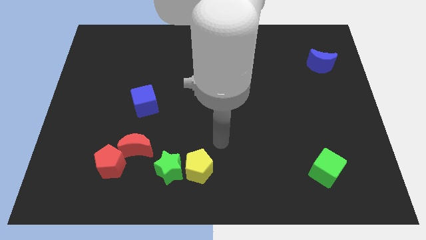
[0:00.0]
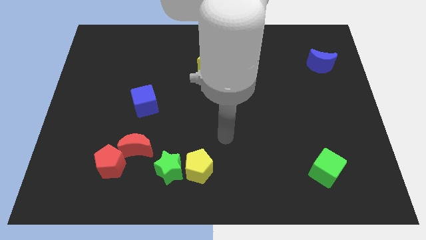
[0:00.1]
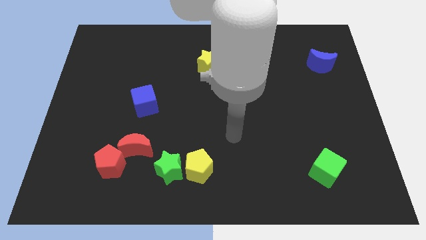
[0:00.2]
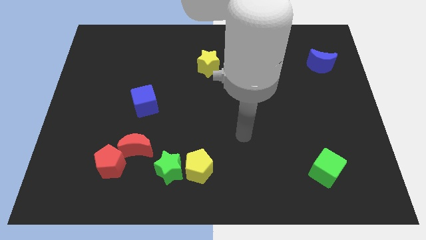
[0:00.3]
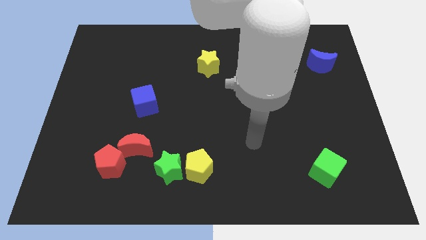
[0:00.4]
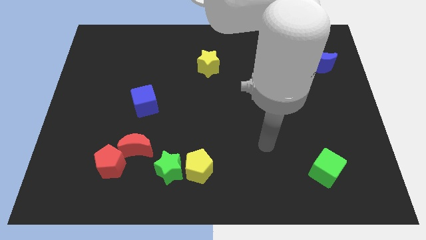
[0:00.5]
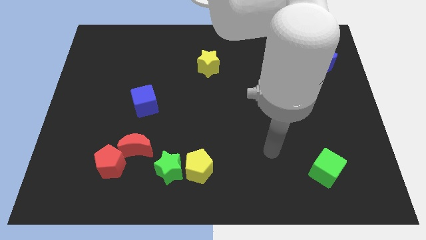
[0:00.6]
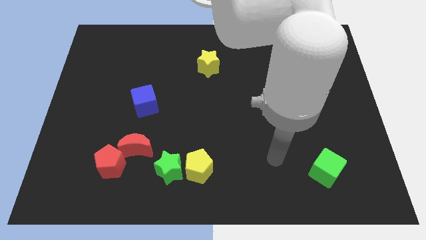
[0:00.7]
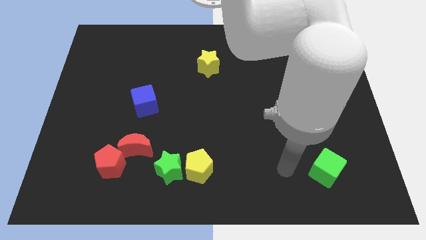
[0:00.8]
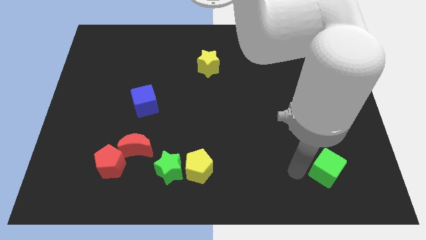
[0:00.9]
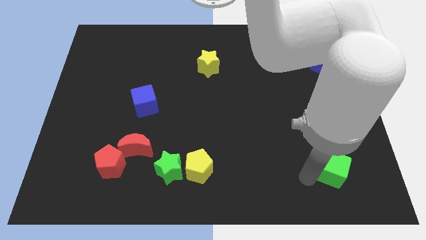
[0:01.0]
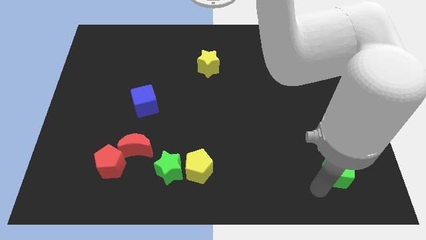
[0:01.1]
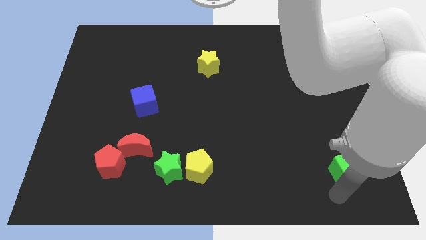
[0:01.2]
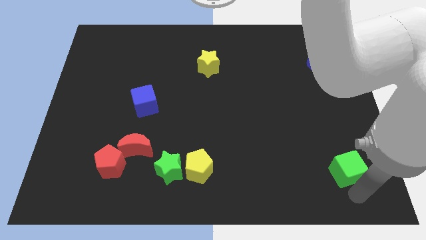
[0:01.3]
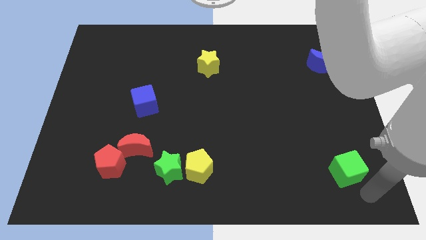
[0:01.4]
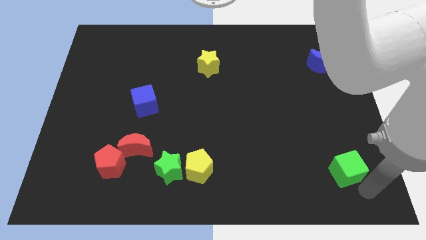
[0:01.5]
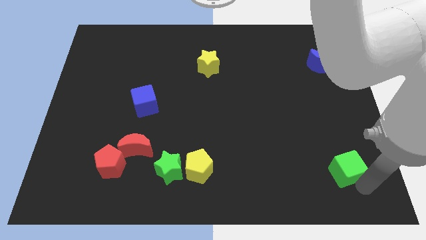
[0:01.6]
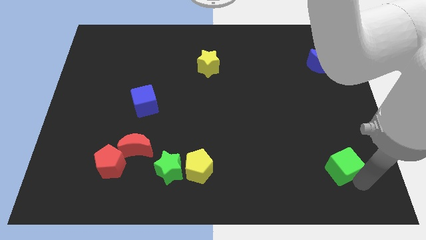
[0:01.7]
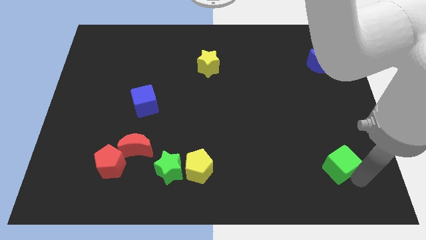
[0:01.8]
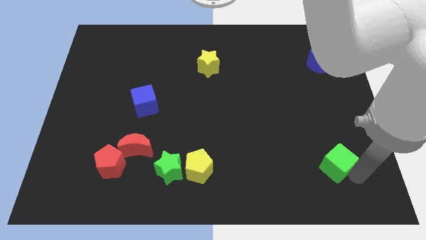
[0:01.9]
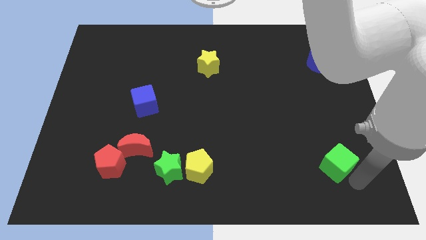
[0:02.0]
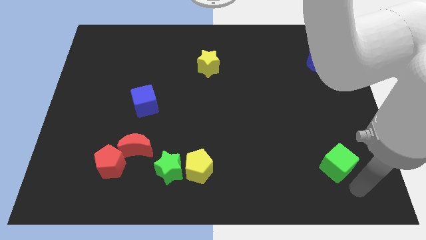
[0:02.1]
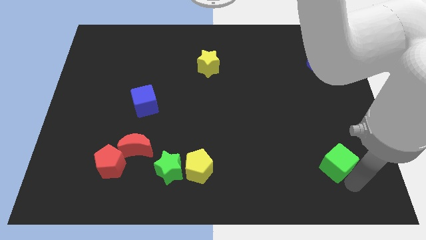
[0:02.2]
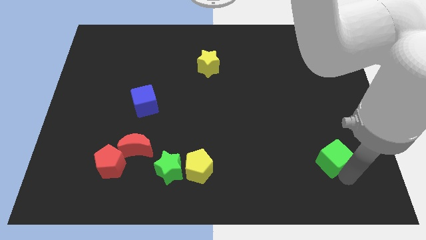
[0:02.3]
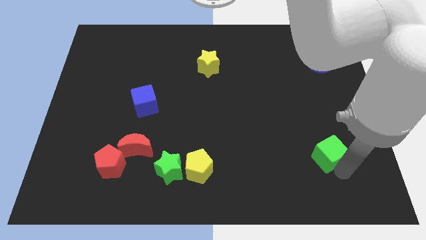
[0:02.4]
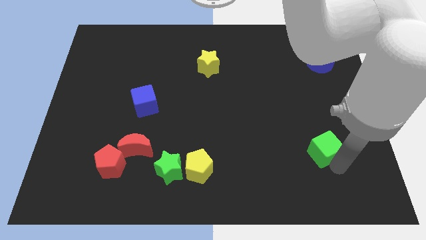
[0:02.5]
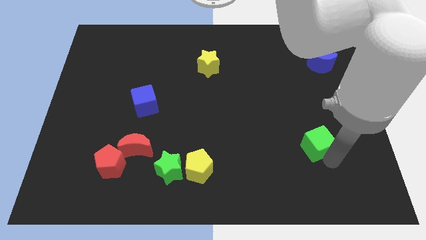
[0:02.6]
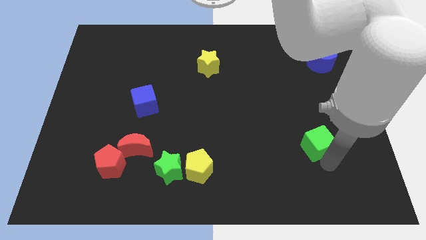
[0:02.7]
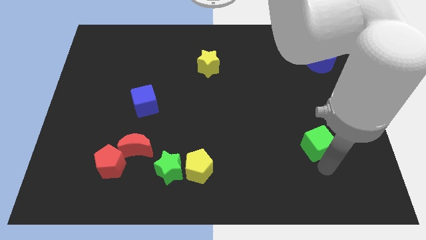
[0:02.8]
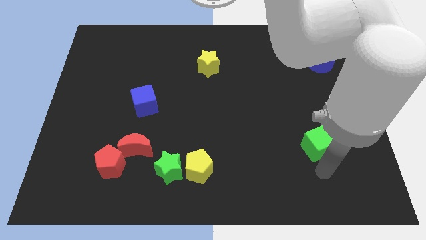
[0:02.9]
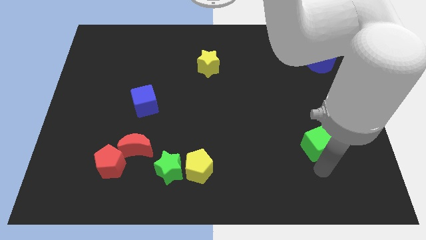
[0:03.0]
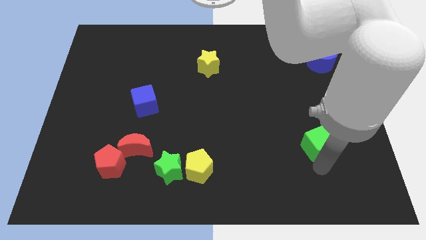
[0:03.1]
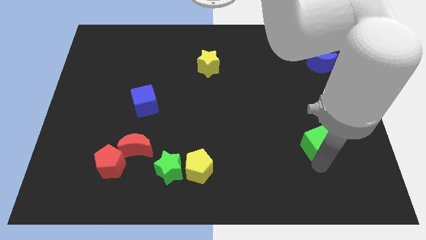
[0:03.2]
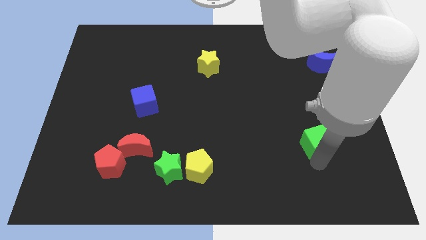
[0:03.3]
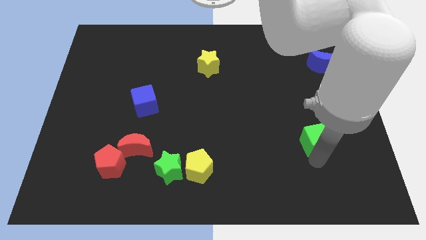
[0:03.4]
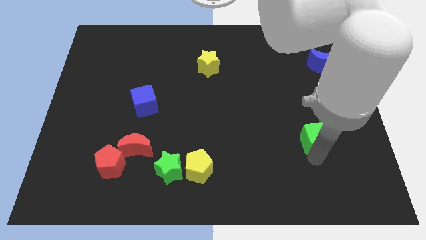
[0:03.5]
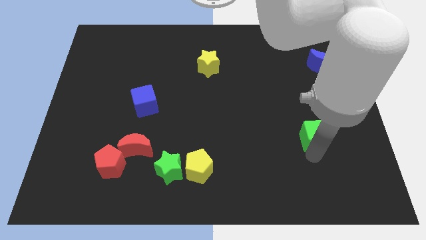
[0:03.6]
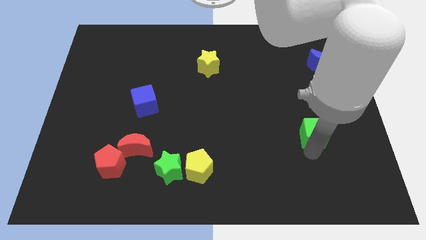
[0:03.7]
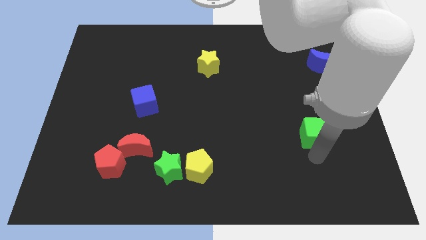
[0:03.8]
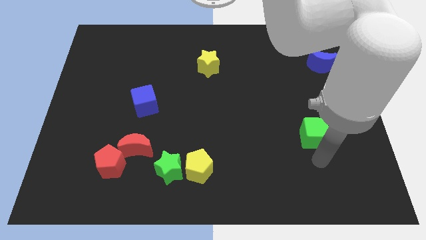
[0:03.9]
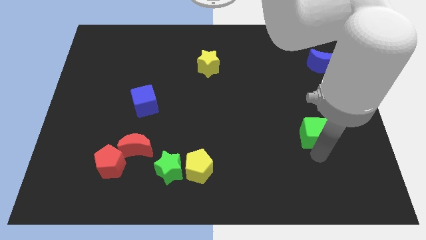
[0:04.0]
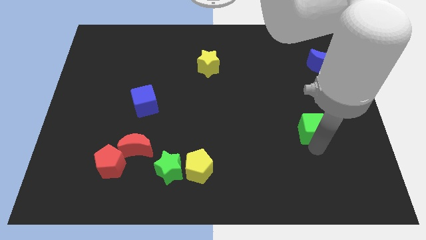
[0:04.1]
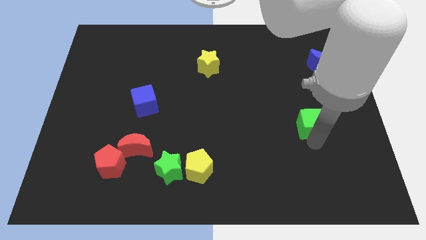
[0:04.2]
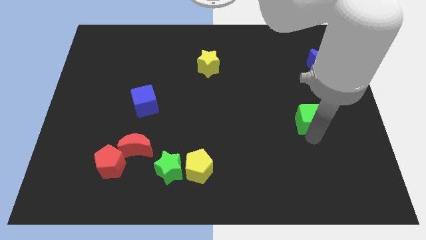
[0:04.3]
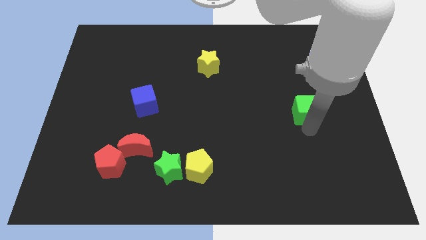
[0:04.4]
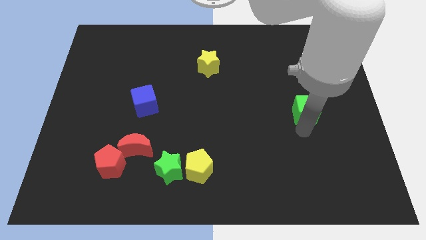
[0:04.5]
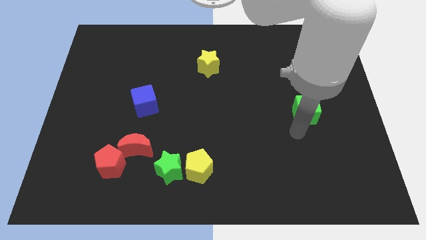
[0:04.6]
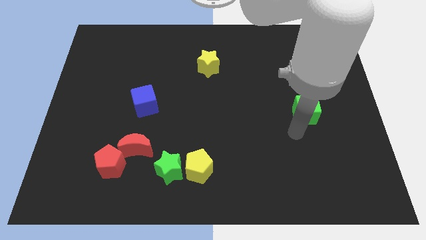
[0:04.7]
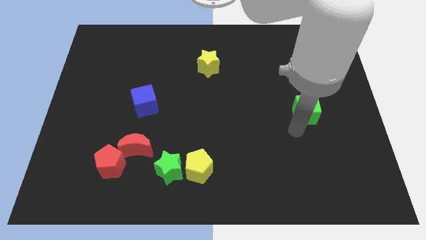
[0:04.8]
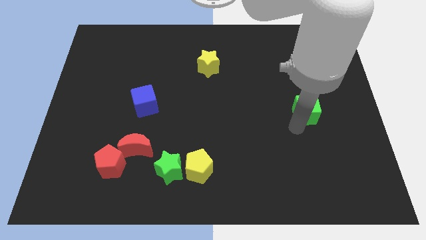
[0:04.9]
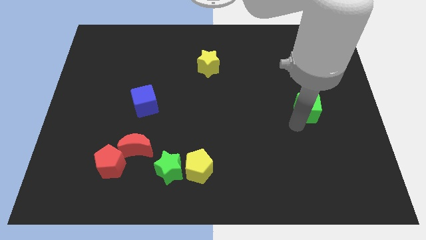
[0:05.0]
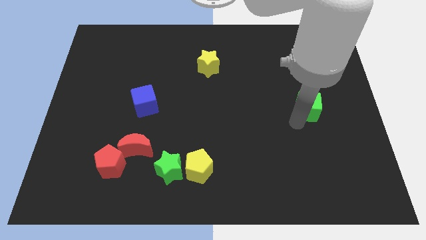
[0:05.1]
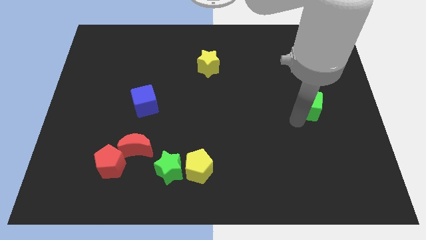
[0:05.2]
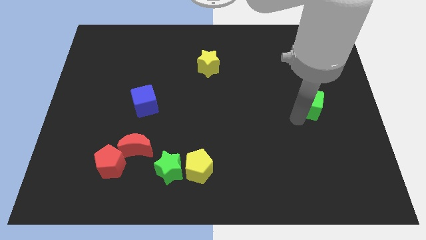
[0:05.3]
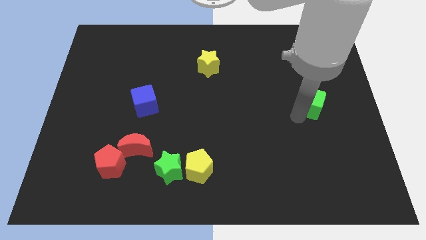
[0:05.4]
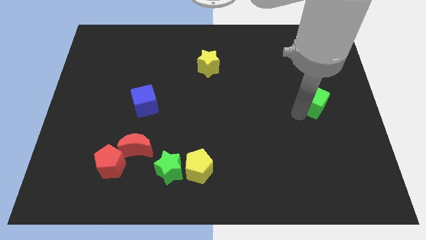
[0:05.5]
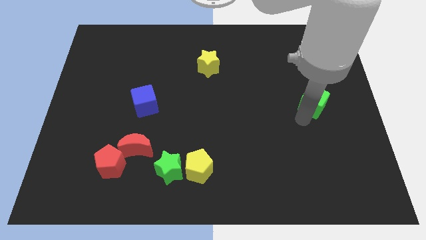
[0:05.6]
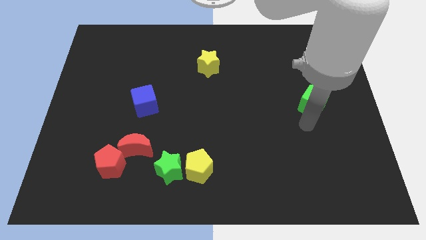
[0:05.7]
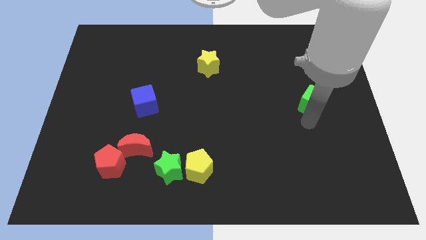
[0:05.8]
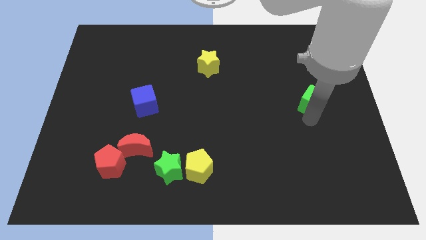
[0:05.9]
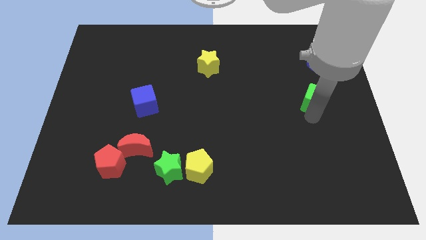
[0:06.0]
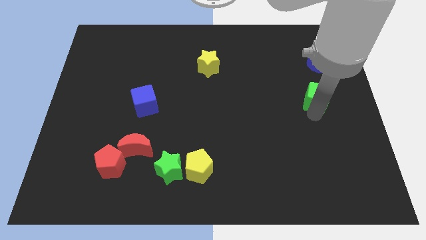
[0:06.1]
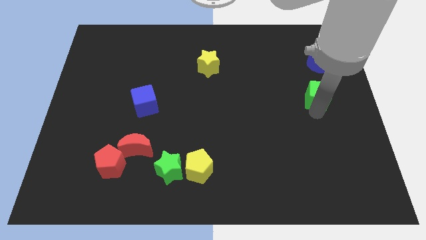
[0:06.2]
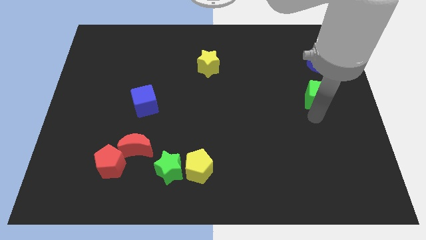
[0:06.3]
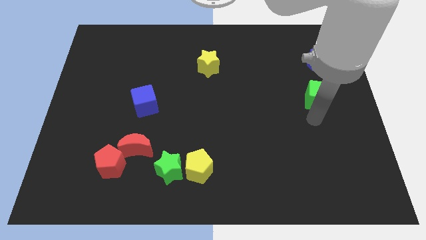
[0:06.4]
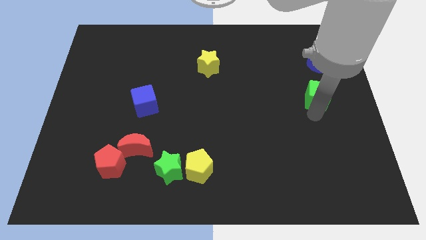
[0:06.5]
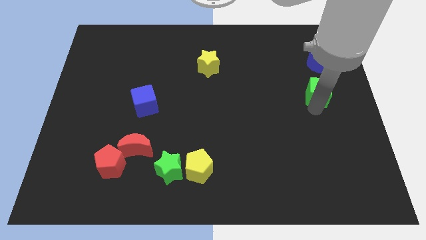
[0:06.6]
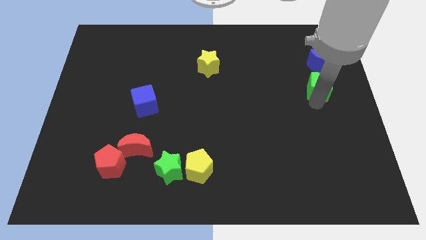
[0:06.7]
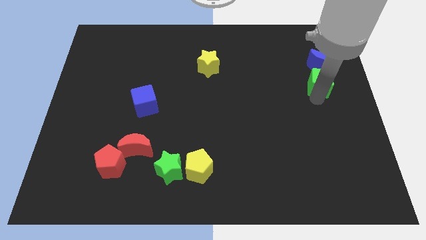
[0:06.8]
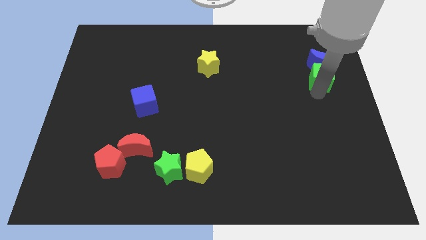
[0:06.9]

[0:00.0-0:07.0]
slide the green cube towards the blue moon

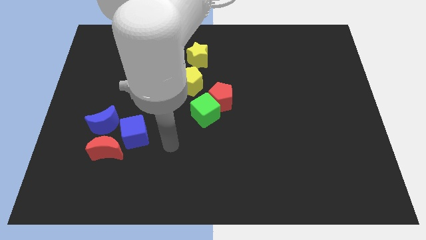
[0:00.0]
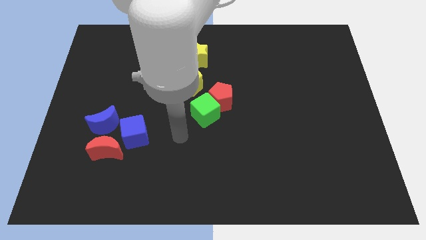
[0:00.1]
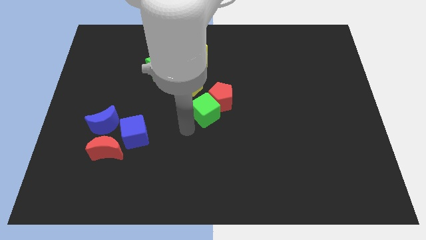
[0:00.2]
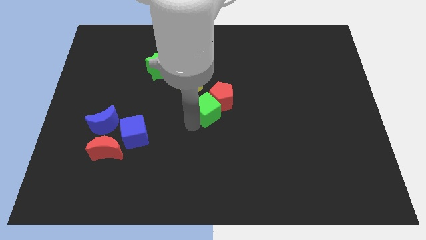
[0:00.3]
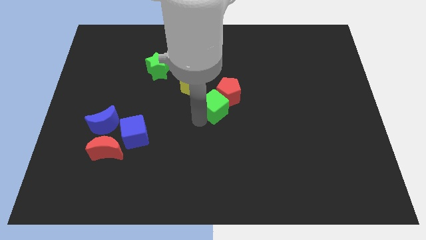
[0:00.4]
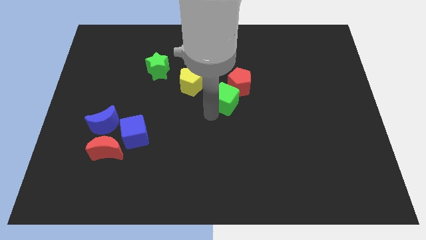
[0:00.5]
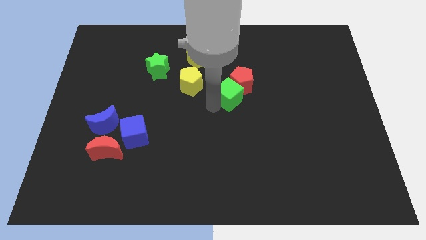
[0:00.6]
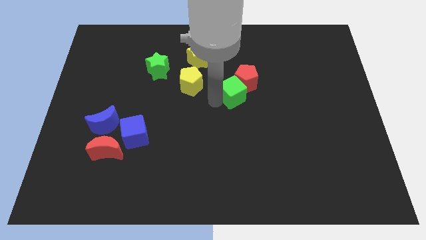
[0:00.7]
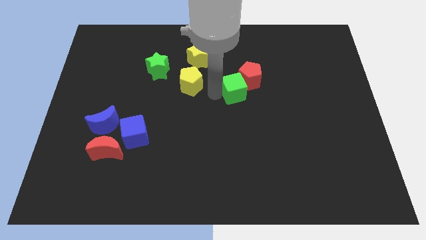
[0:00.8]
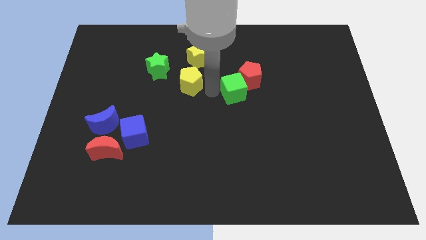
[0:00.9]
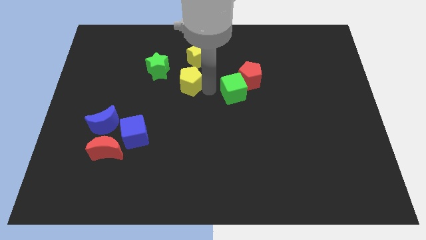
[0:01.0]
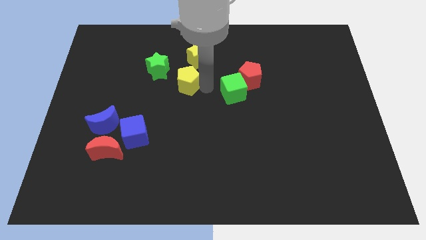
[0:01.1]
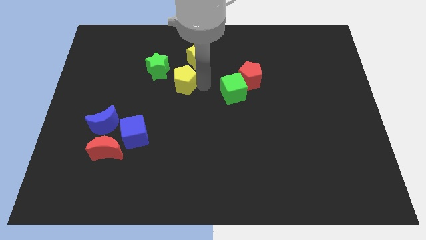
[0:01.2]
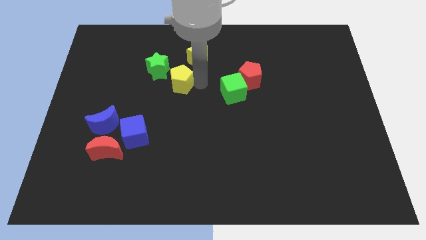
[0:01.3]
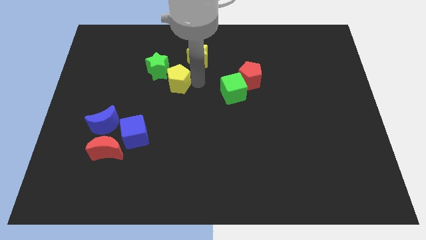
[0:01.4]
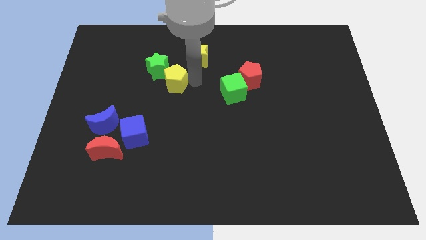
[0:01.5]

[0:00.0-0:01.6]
put the yellow pentagon next to the green star
